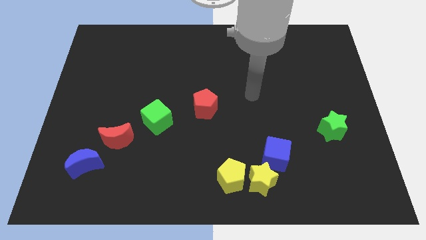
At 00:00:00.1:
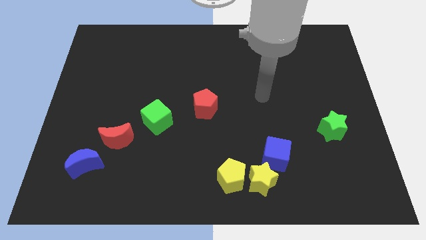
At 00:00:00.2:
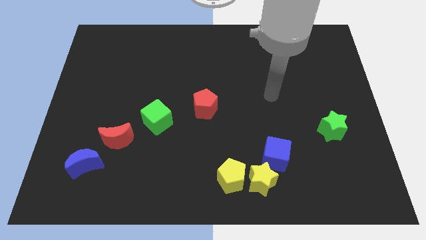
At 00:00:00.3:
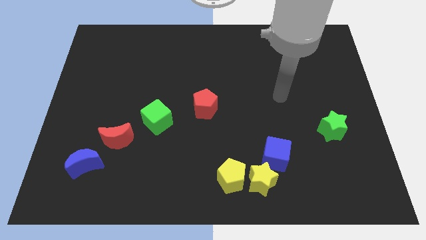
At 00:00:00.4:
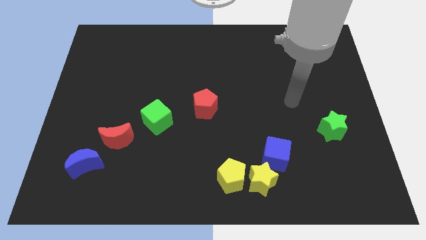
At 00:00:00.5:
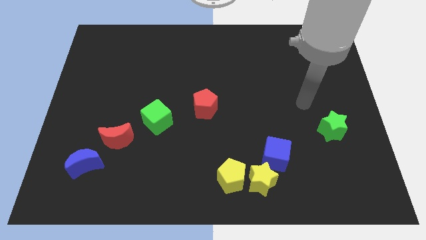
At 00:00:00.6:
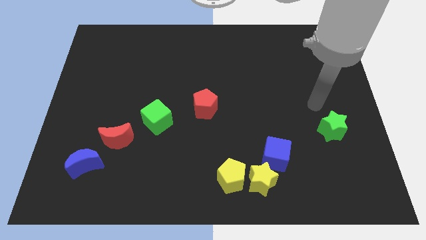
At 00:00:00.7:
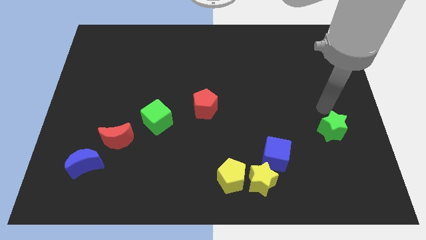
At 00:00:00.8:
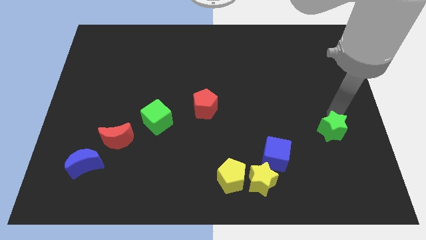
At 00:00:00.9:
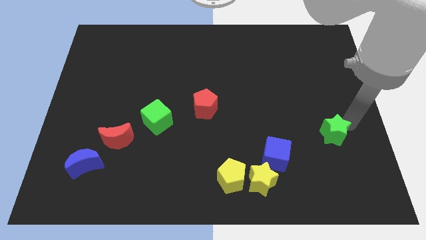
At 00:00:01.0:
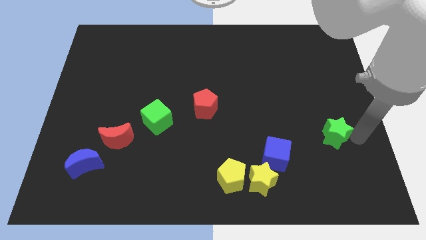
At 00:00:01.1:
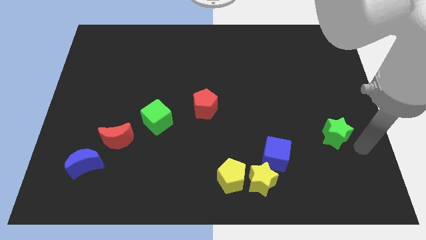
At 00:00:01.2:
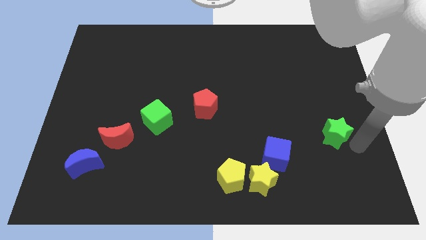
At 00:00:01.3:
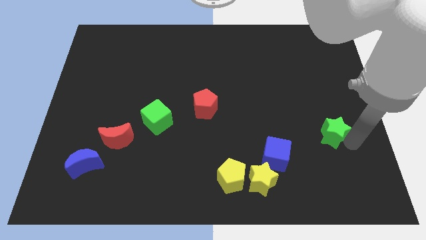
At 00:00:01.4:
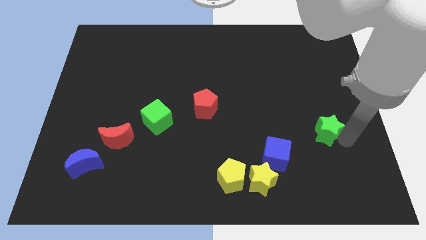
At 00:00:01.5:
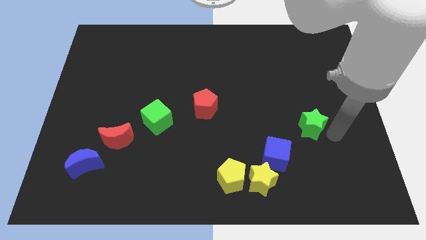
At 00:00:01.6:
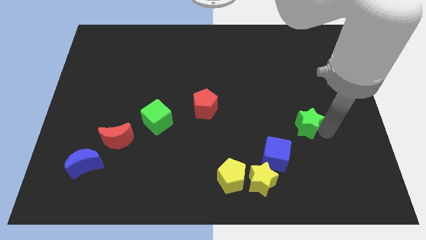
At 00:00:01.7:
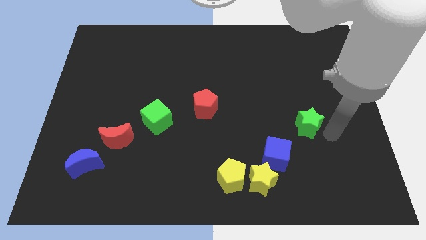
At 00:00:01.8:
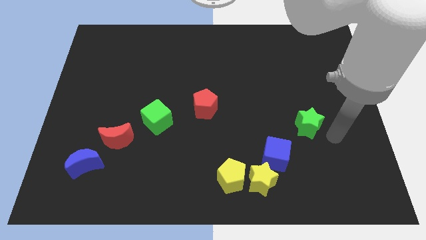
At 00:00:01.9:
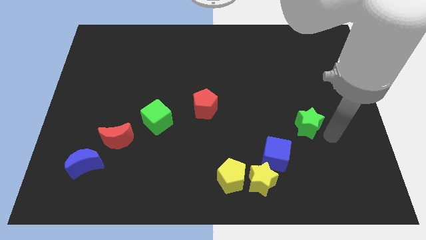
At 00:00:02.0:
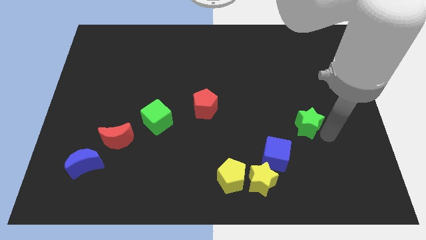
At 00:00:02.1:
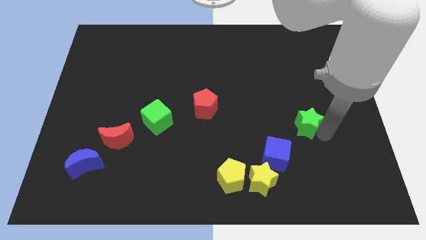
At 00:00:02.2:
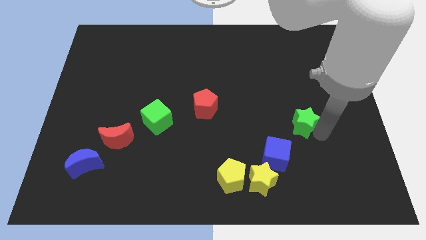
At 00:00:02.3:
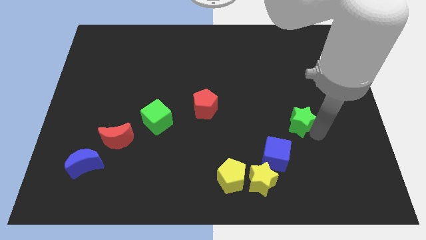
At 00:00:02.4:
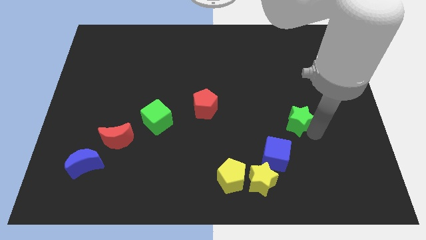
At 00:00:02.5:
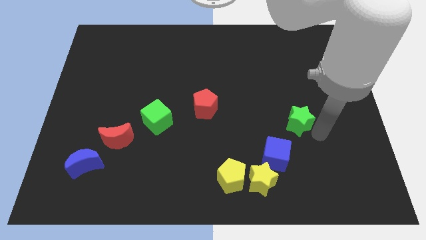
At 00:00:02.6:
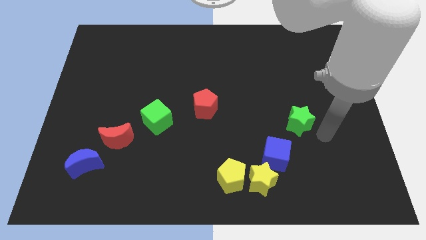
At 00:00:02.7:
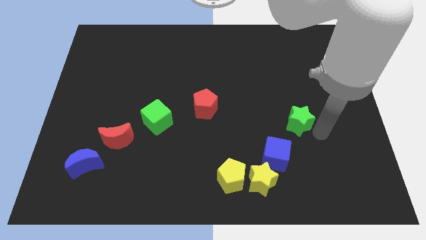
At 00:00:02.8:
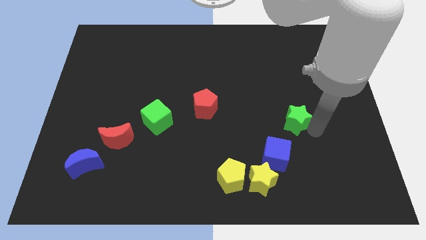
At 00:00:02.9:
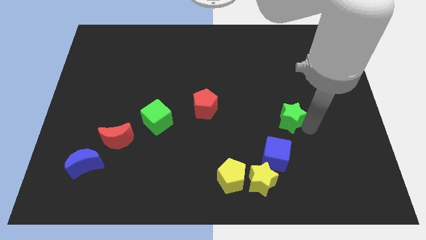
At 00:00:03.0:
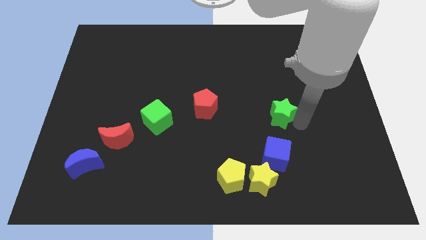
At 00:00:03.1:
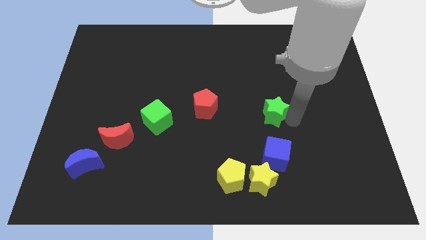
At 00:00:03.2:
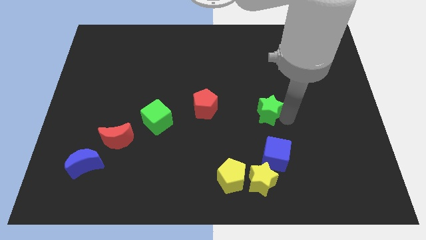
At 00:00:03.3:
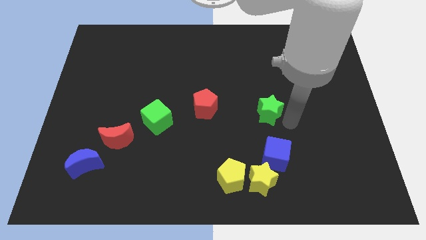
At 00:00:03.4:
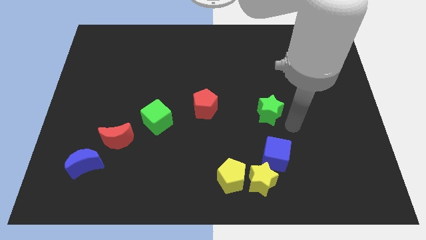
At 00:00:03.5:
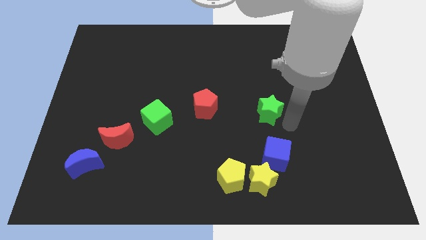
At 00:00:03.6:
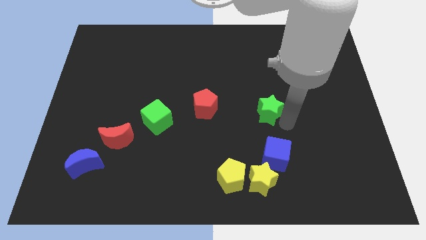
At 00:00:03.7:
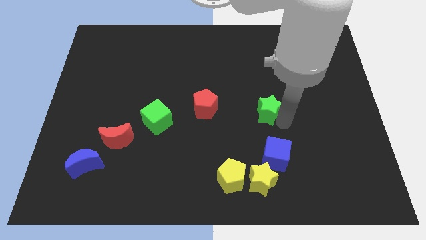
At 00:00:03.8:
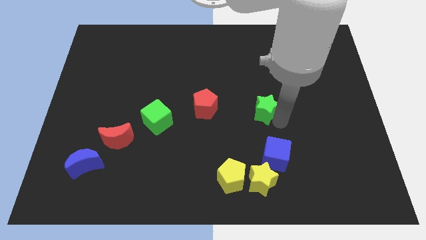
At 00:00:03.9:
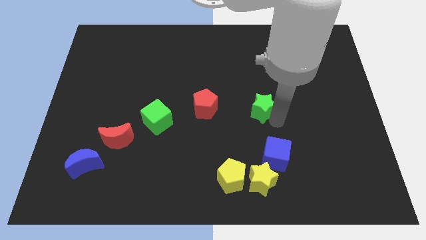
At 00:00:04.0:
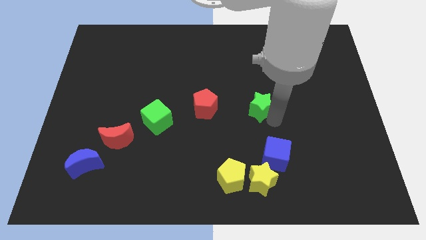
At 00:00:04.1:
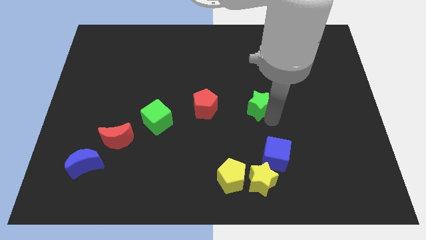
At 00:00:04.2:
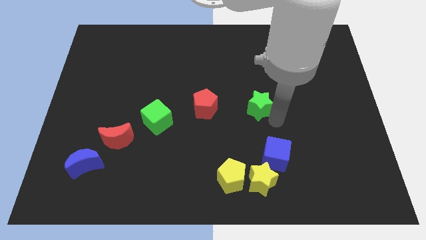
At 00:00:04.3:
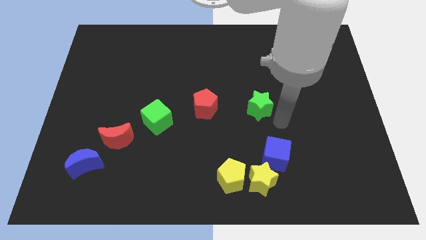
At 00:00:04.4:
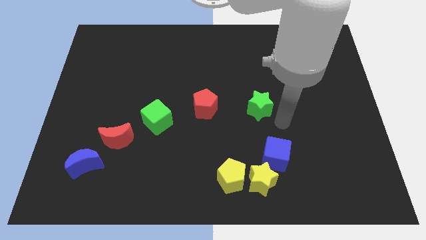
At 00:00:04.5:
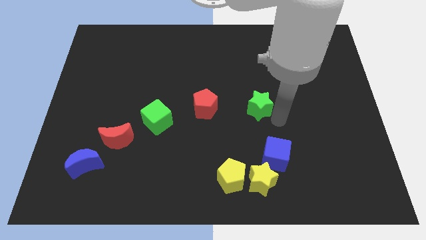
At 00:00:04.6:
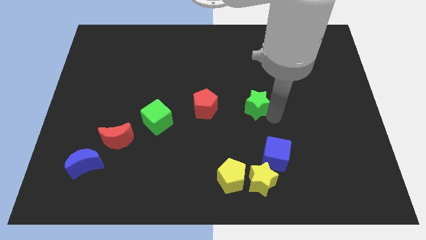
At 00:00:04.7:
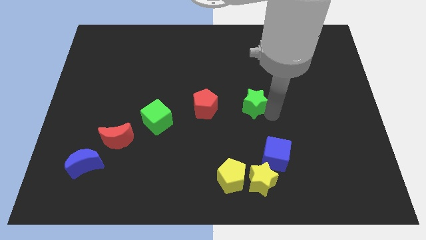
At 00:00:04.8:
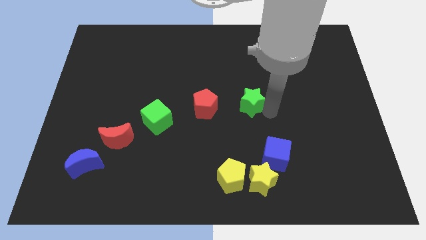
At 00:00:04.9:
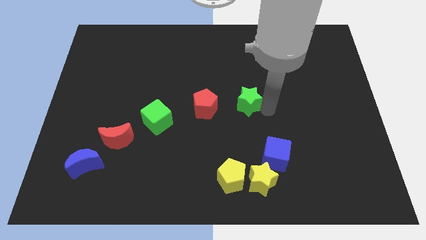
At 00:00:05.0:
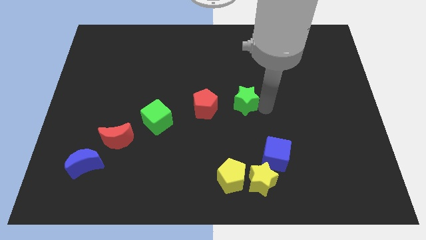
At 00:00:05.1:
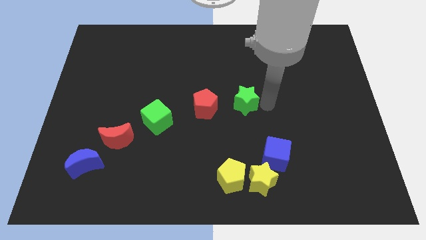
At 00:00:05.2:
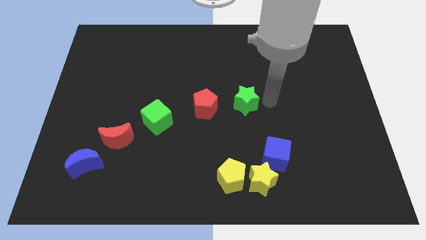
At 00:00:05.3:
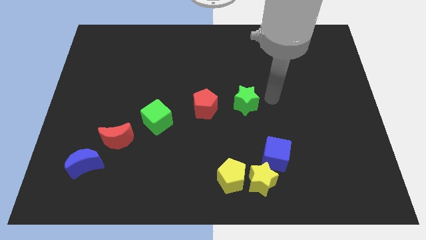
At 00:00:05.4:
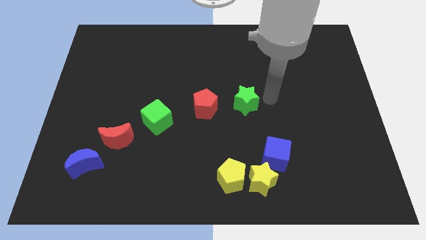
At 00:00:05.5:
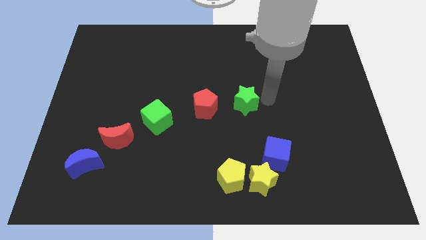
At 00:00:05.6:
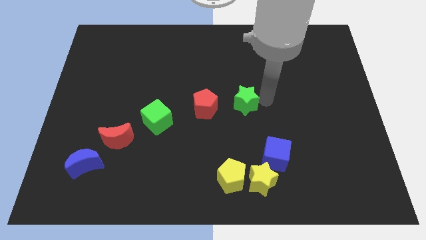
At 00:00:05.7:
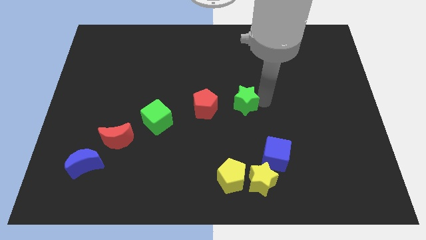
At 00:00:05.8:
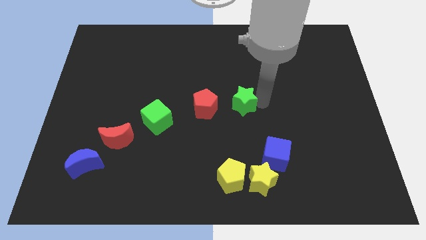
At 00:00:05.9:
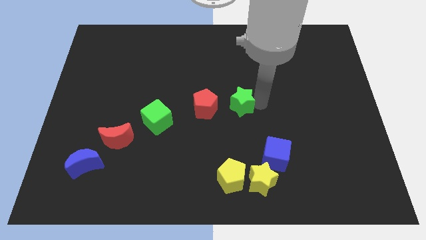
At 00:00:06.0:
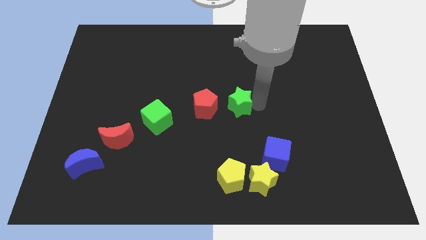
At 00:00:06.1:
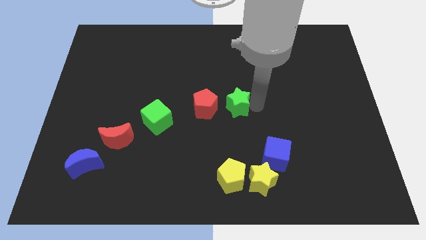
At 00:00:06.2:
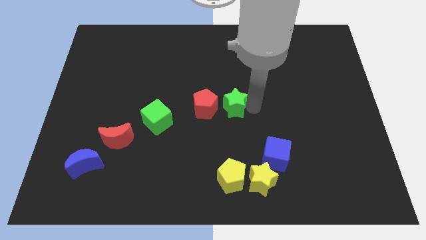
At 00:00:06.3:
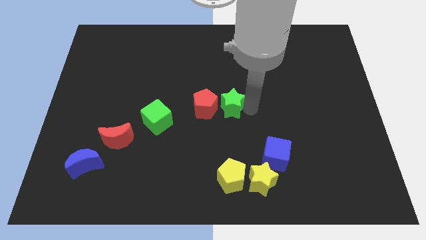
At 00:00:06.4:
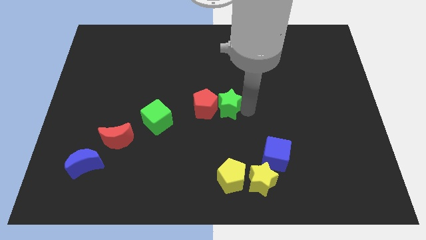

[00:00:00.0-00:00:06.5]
move the green star towards the red pentagon
